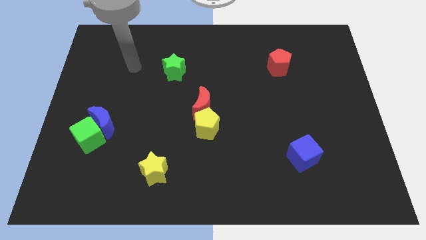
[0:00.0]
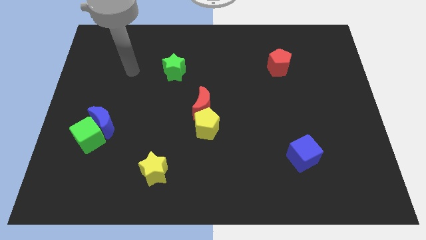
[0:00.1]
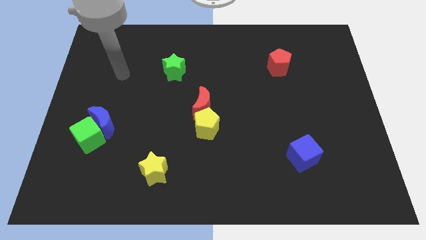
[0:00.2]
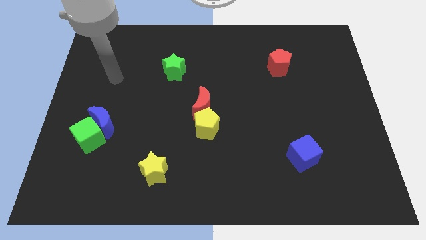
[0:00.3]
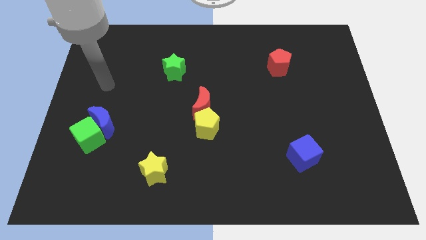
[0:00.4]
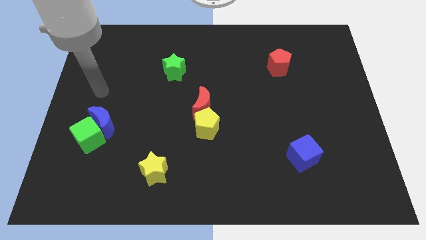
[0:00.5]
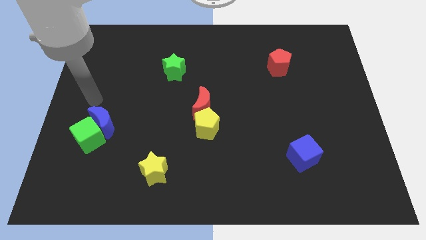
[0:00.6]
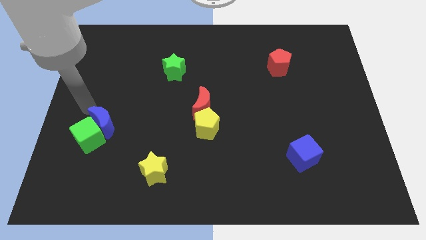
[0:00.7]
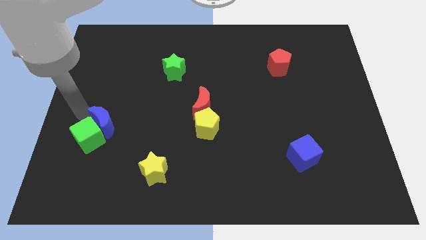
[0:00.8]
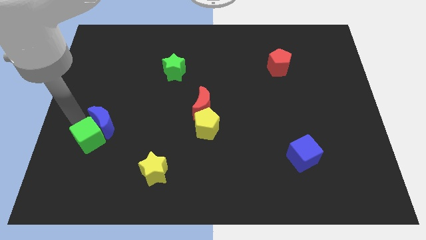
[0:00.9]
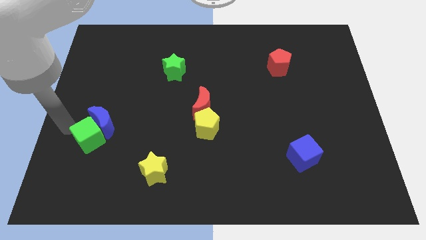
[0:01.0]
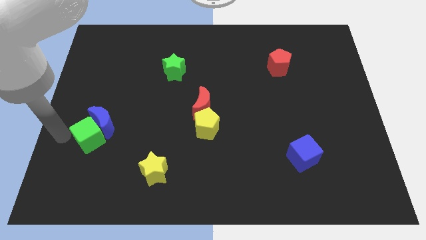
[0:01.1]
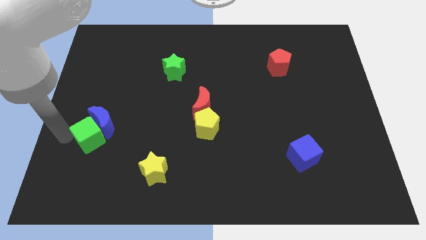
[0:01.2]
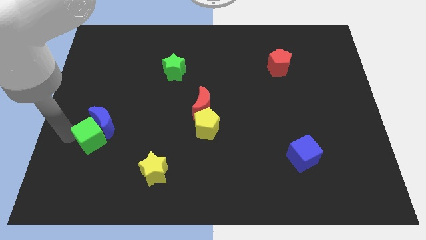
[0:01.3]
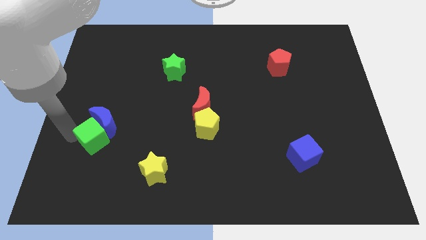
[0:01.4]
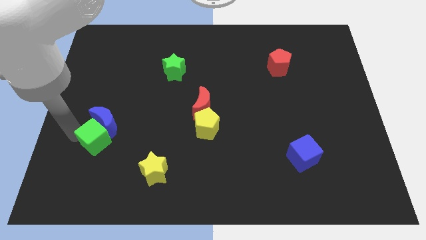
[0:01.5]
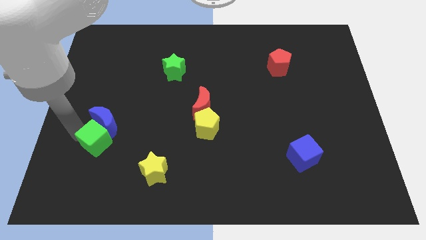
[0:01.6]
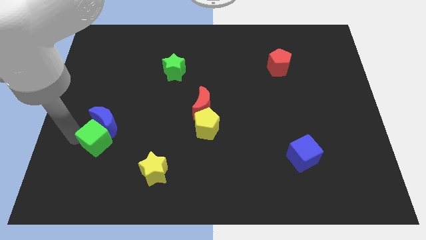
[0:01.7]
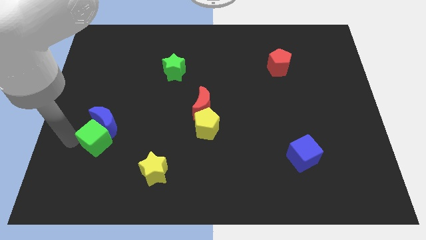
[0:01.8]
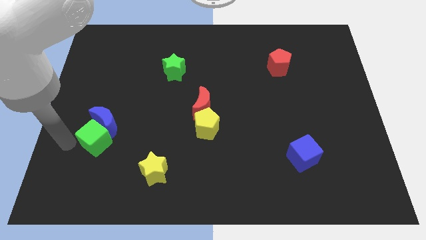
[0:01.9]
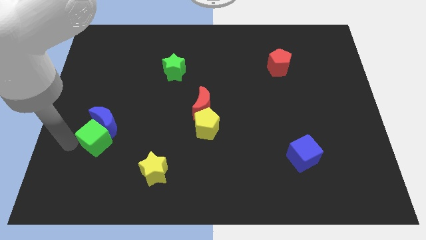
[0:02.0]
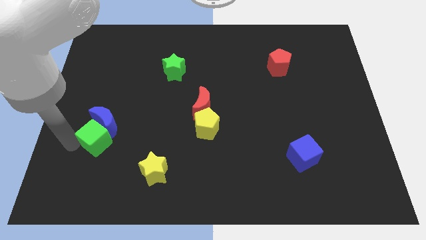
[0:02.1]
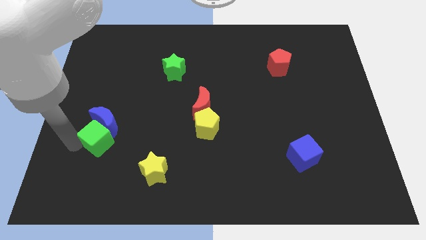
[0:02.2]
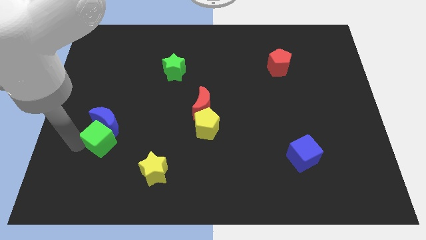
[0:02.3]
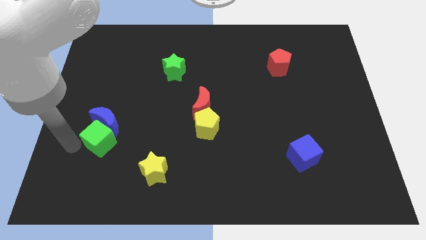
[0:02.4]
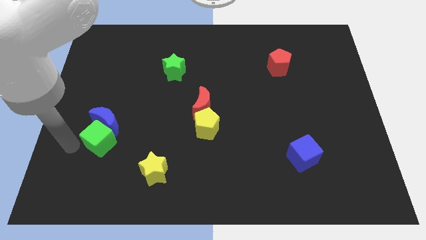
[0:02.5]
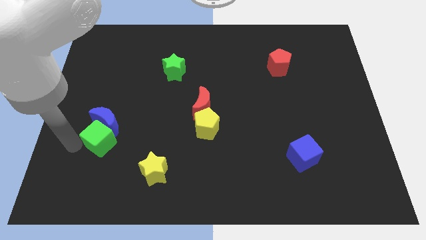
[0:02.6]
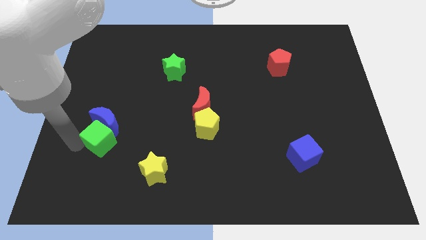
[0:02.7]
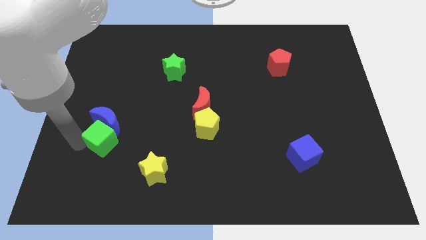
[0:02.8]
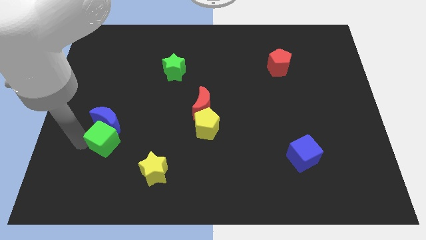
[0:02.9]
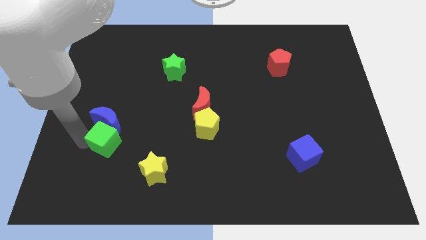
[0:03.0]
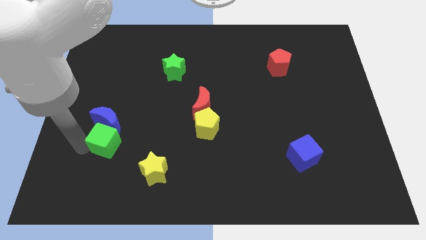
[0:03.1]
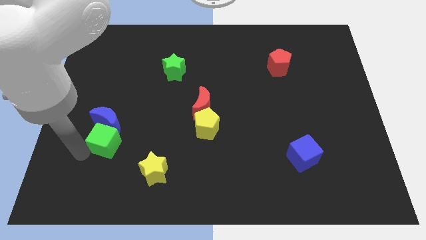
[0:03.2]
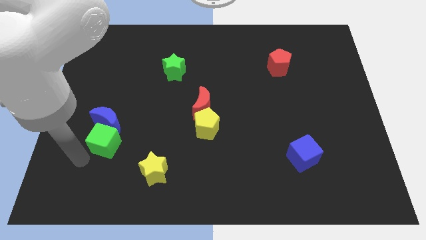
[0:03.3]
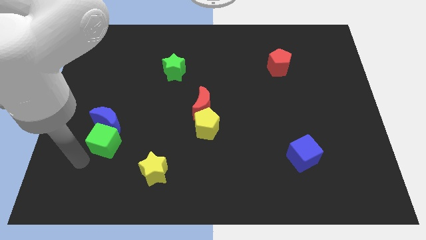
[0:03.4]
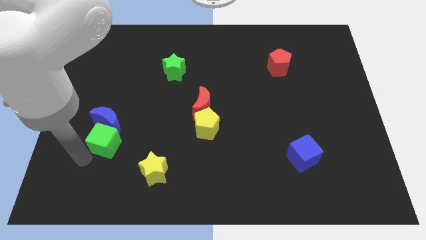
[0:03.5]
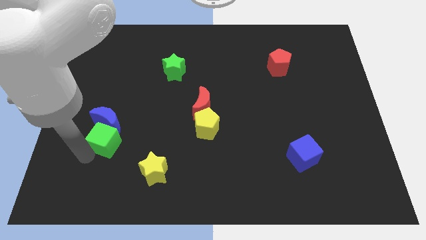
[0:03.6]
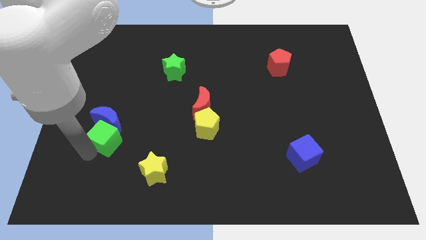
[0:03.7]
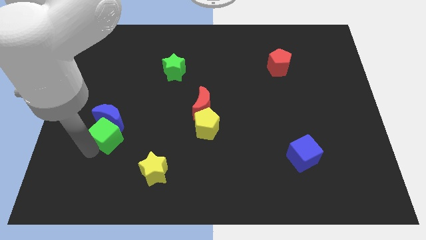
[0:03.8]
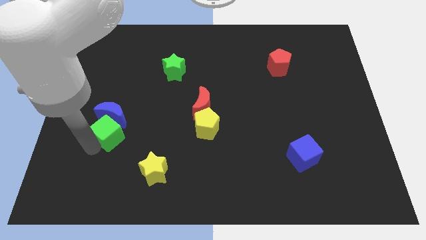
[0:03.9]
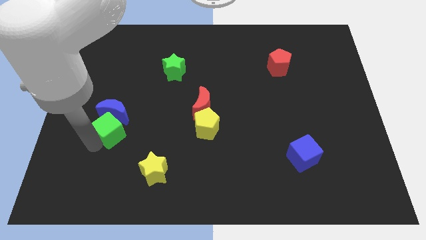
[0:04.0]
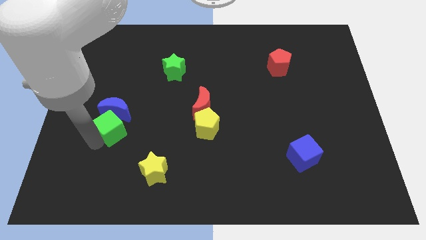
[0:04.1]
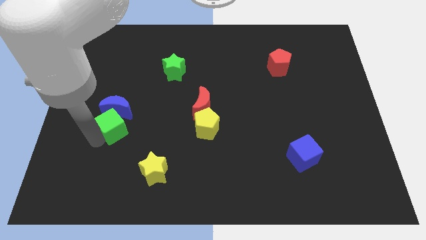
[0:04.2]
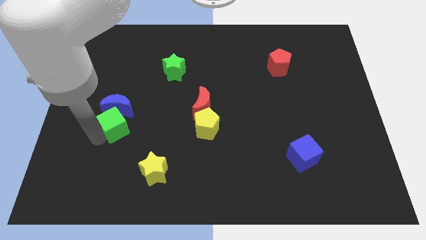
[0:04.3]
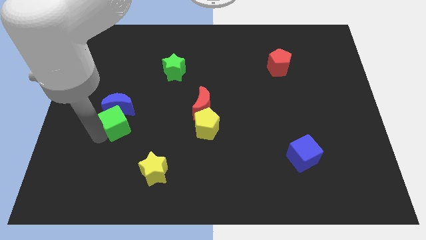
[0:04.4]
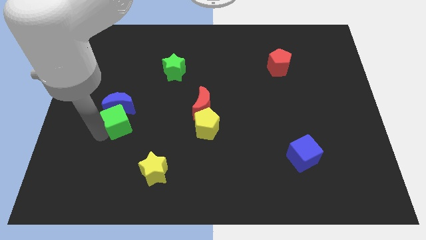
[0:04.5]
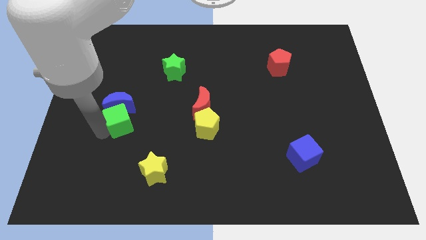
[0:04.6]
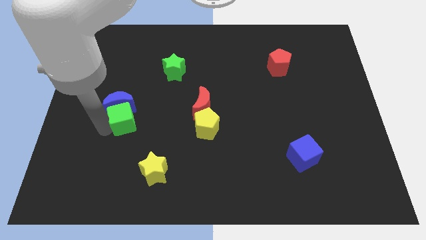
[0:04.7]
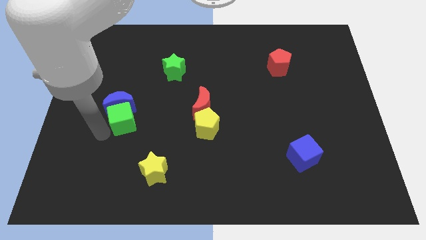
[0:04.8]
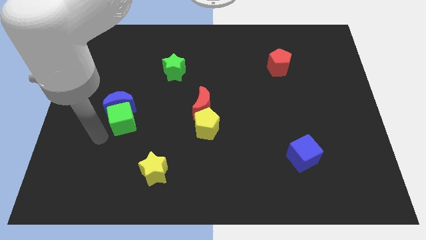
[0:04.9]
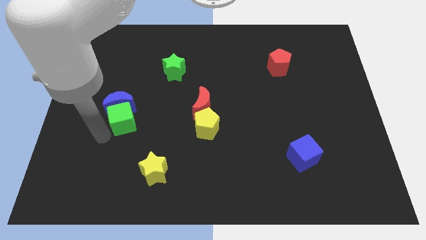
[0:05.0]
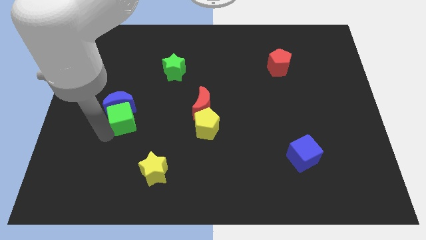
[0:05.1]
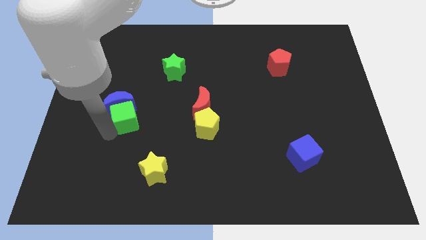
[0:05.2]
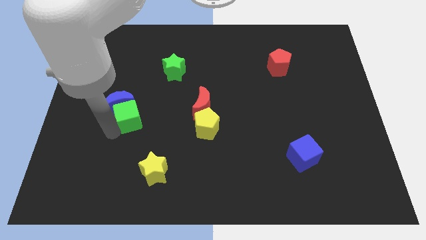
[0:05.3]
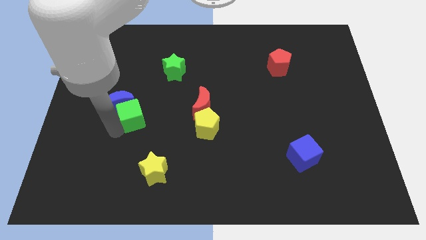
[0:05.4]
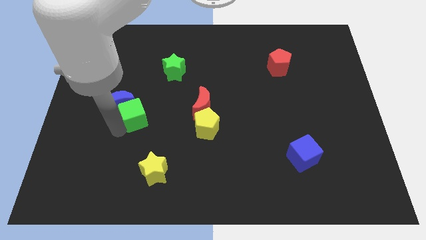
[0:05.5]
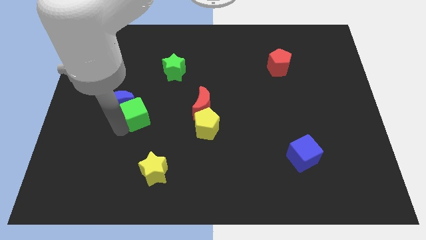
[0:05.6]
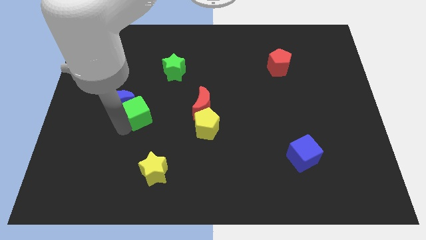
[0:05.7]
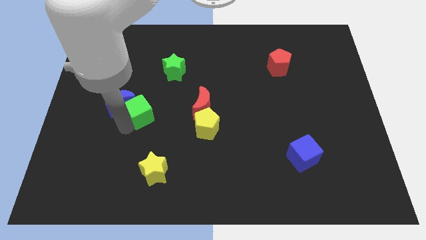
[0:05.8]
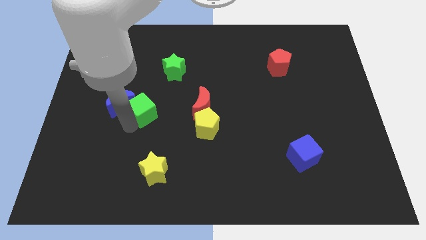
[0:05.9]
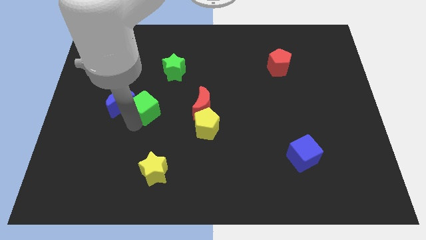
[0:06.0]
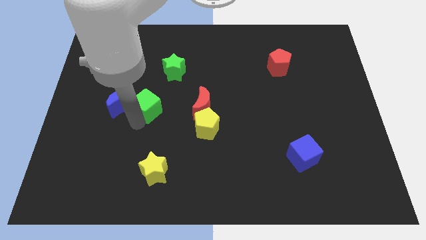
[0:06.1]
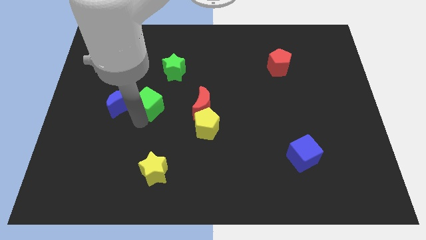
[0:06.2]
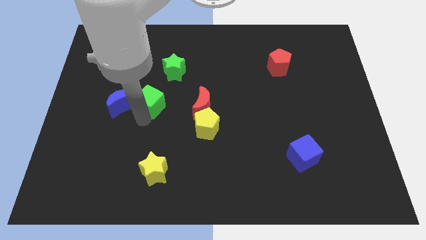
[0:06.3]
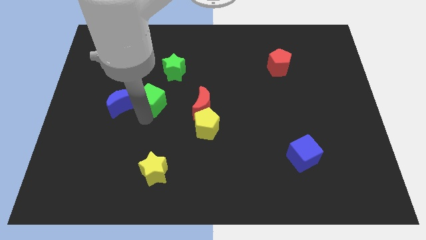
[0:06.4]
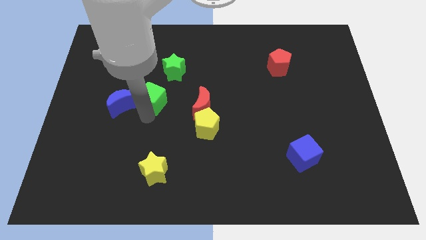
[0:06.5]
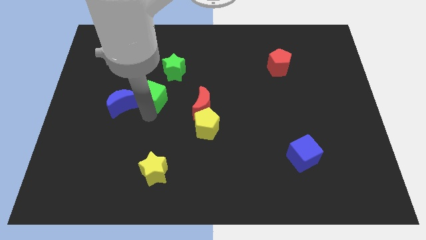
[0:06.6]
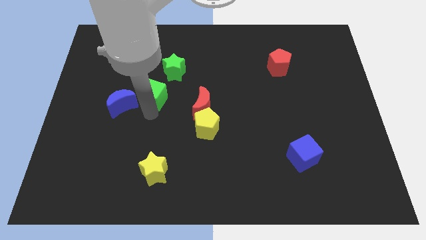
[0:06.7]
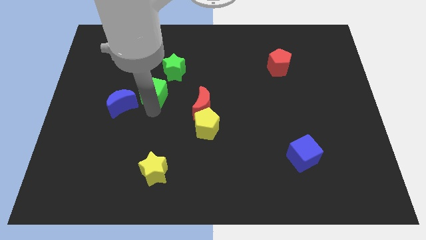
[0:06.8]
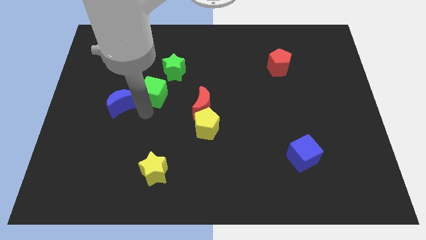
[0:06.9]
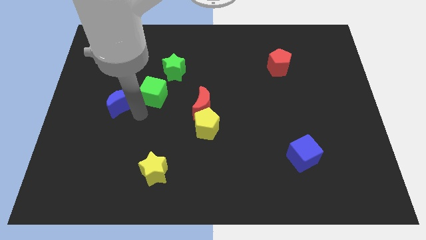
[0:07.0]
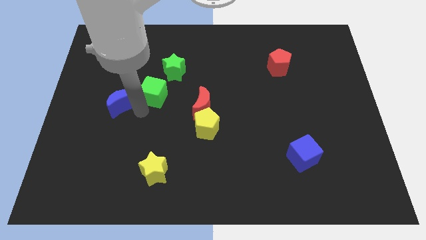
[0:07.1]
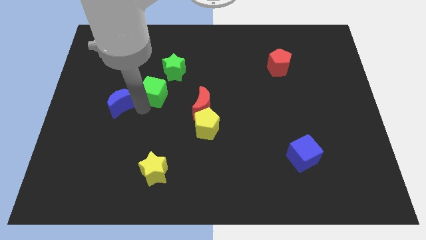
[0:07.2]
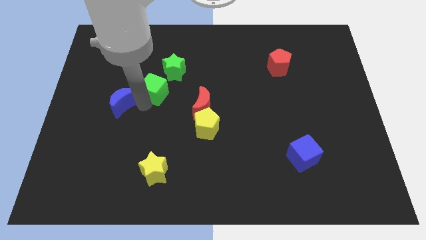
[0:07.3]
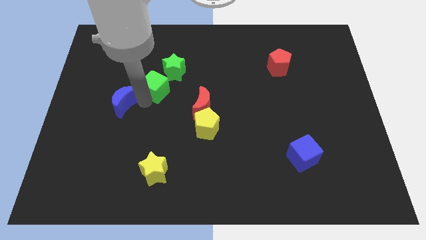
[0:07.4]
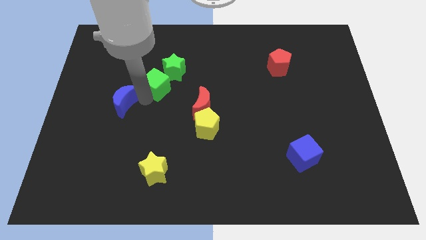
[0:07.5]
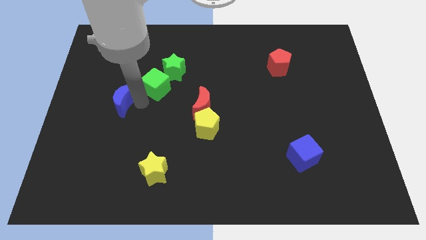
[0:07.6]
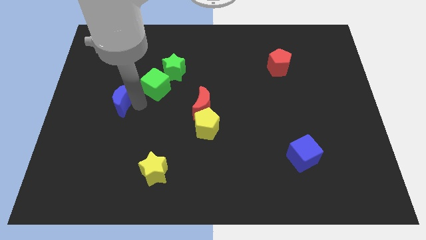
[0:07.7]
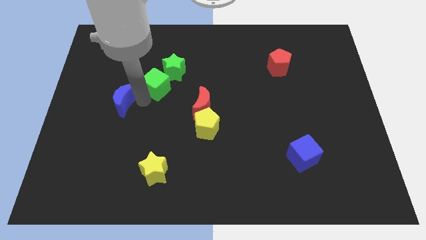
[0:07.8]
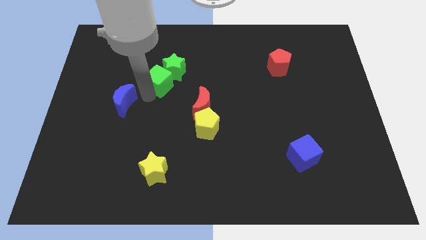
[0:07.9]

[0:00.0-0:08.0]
move the green cube next to the green star
